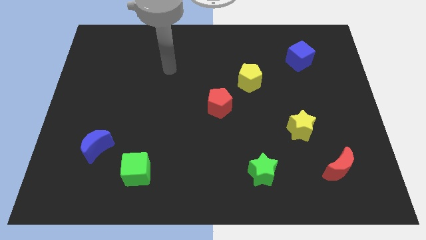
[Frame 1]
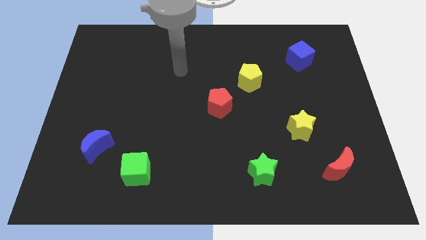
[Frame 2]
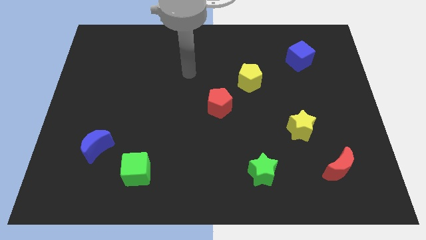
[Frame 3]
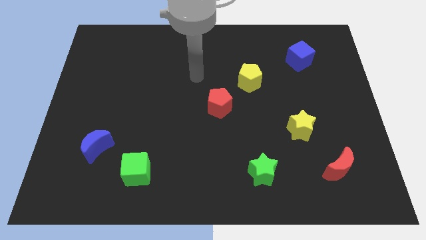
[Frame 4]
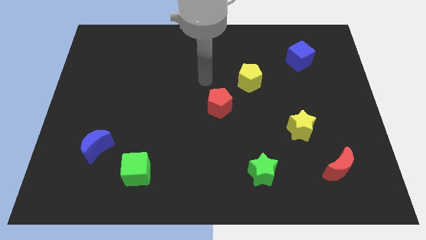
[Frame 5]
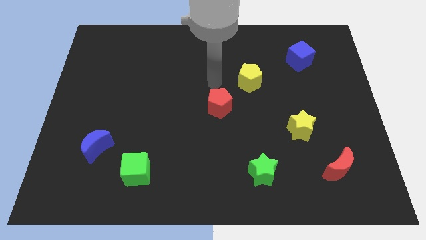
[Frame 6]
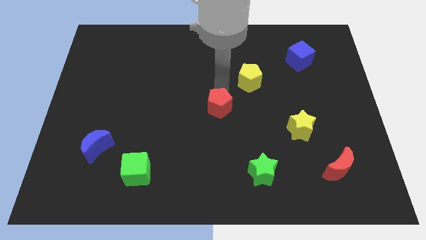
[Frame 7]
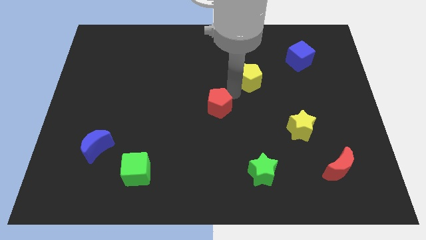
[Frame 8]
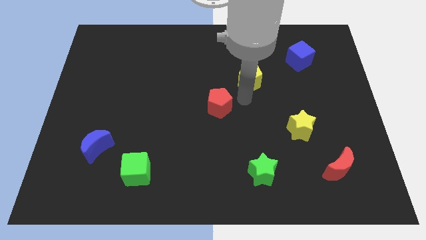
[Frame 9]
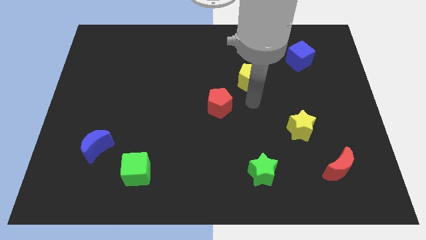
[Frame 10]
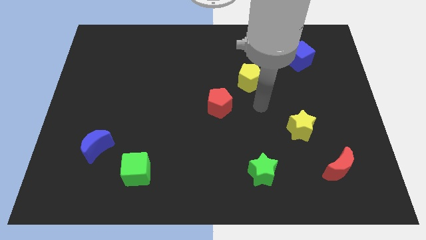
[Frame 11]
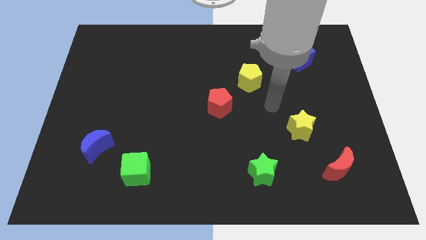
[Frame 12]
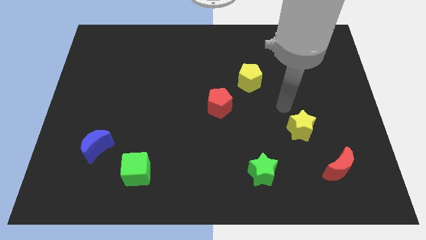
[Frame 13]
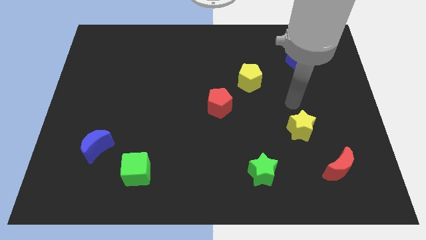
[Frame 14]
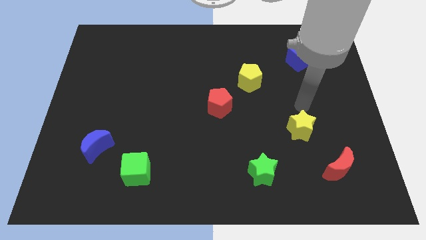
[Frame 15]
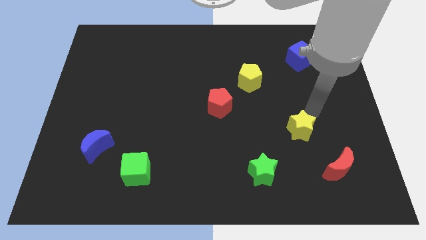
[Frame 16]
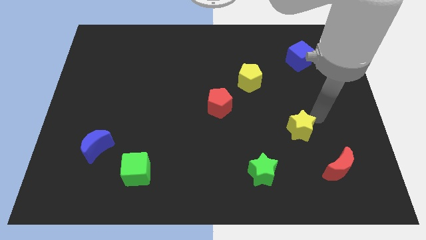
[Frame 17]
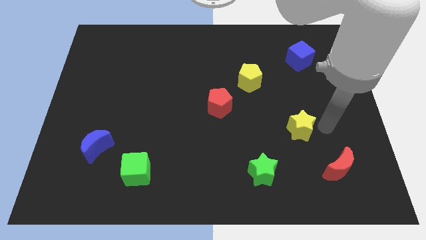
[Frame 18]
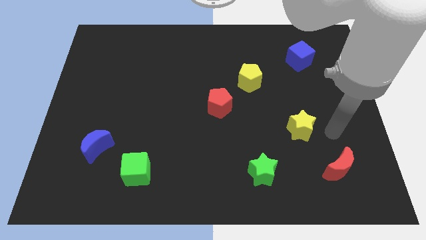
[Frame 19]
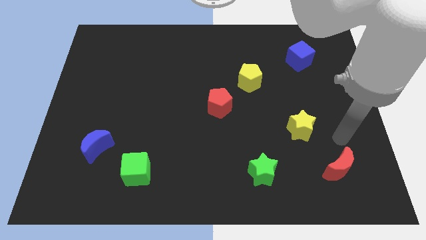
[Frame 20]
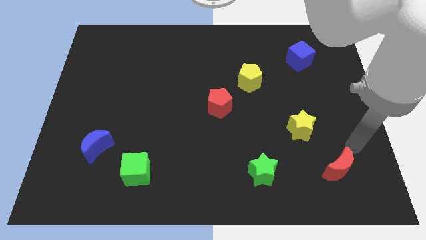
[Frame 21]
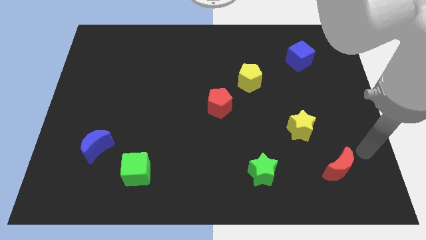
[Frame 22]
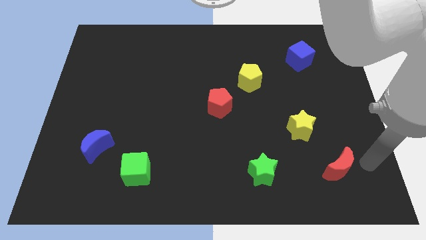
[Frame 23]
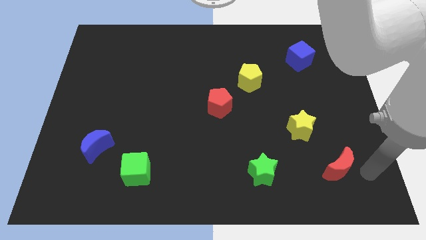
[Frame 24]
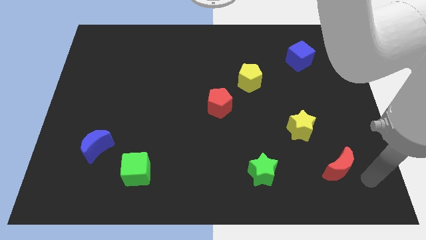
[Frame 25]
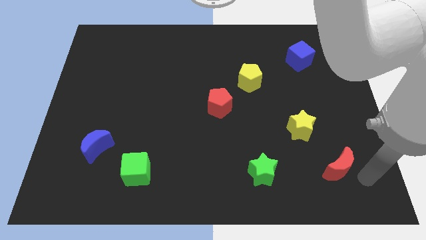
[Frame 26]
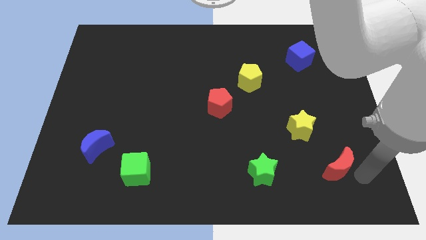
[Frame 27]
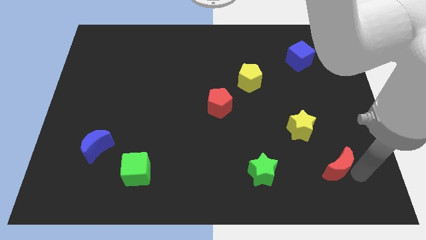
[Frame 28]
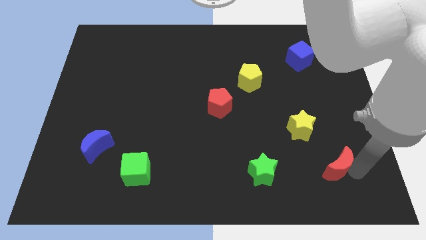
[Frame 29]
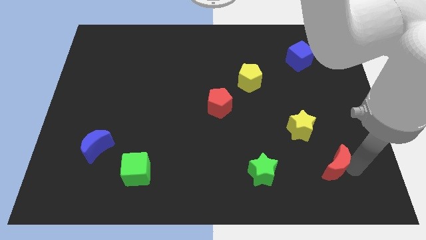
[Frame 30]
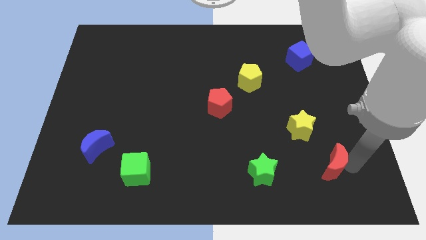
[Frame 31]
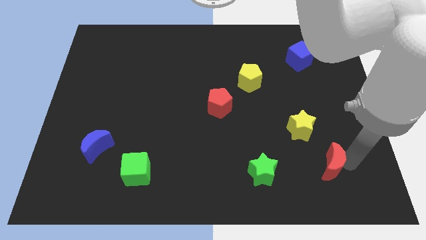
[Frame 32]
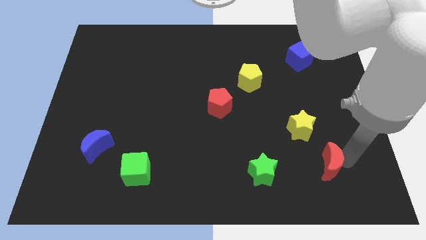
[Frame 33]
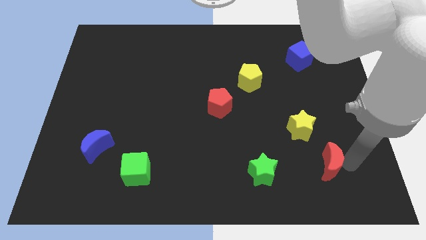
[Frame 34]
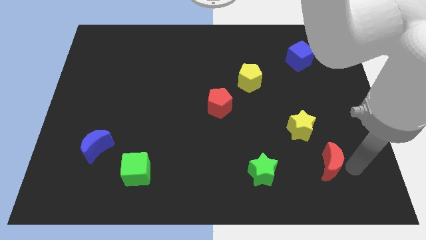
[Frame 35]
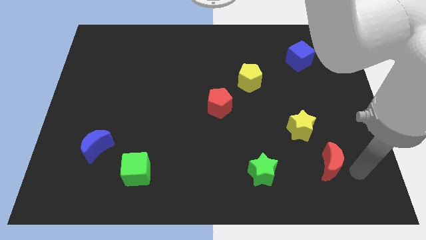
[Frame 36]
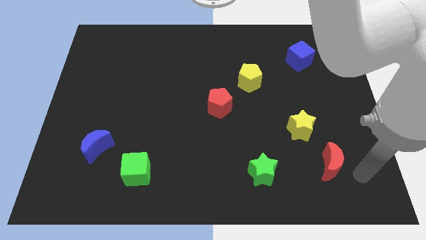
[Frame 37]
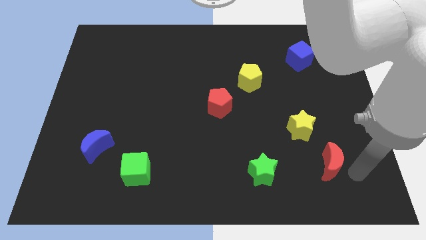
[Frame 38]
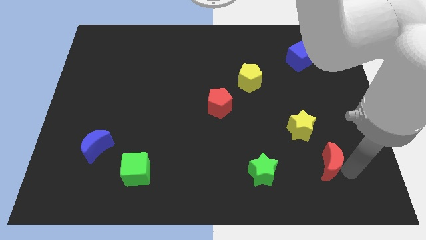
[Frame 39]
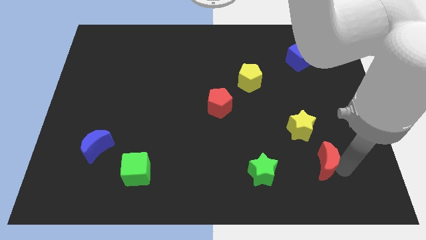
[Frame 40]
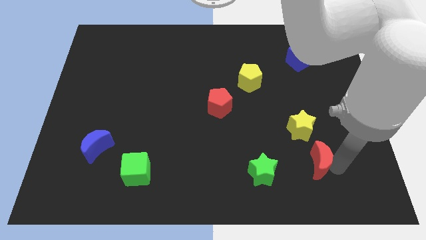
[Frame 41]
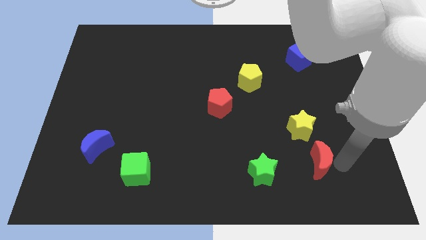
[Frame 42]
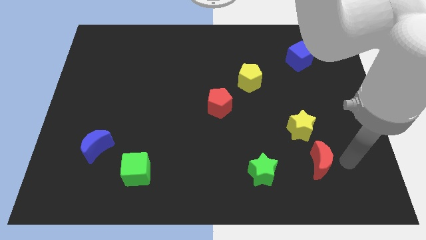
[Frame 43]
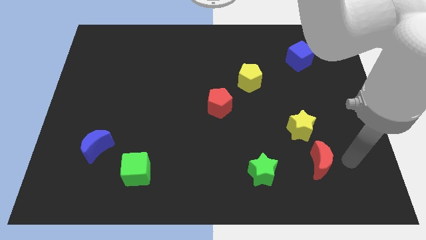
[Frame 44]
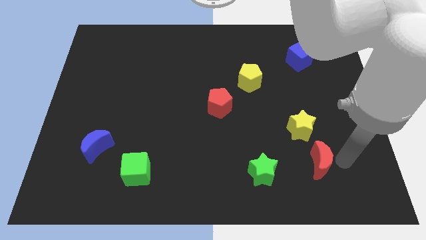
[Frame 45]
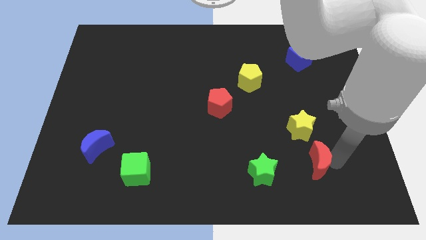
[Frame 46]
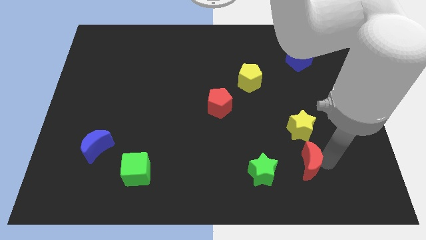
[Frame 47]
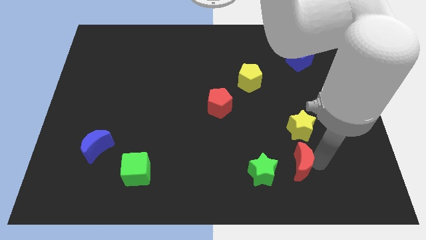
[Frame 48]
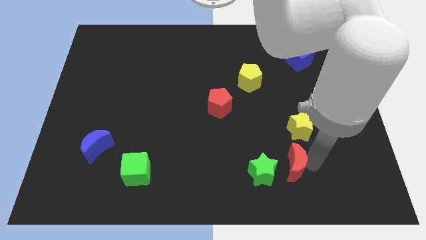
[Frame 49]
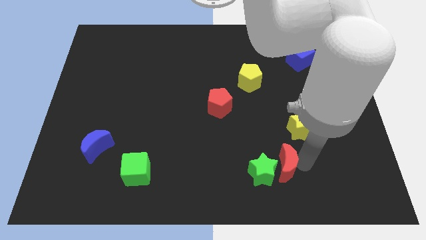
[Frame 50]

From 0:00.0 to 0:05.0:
push the red moon to the green star

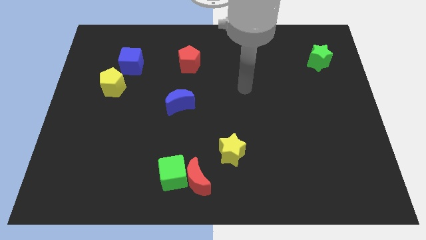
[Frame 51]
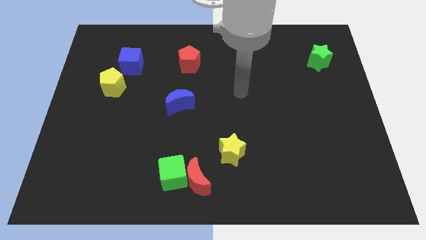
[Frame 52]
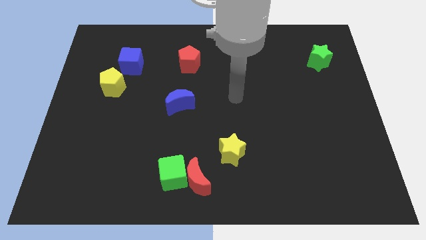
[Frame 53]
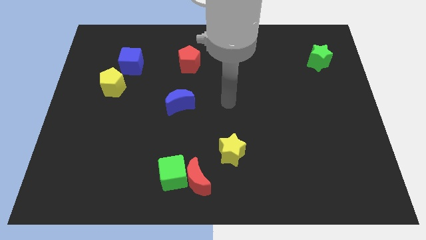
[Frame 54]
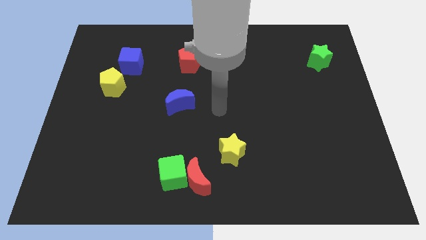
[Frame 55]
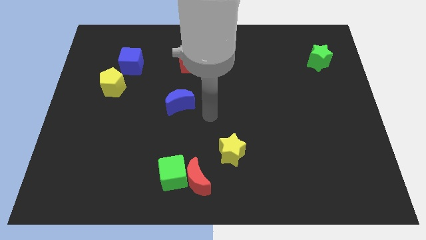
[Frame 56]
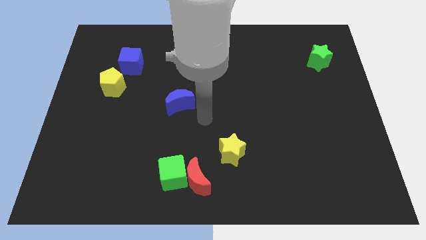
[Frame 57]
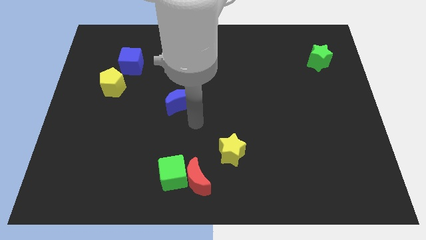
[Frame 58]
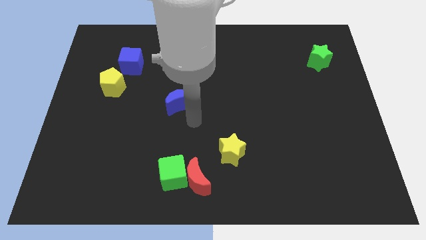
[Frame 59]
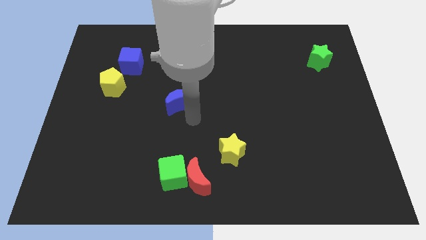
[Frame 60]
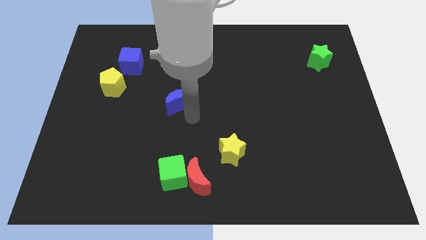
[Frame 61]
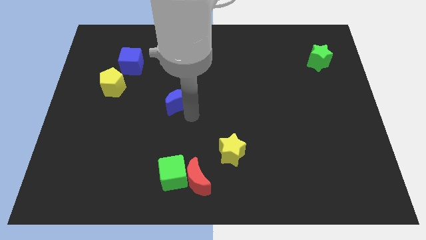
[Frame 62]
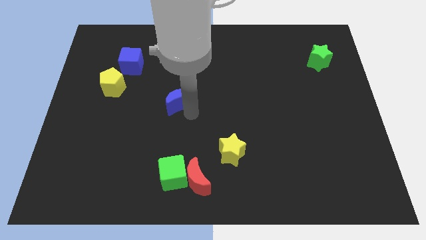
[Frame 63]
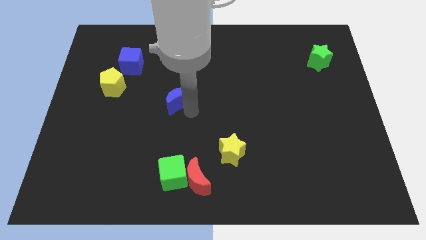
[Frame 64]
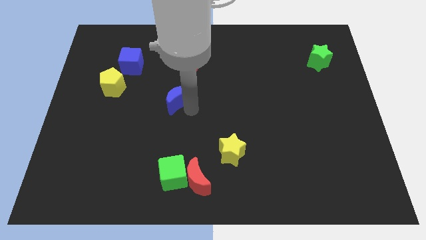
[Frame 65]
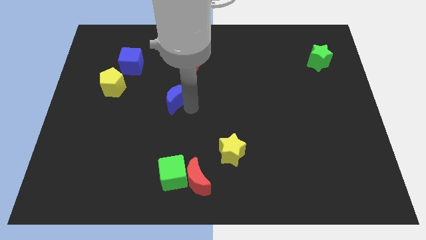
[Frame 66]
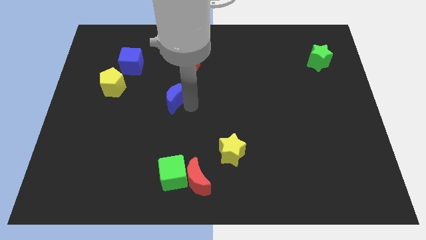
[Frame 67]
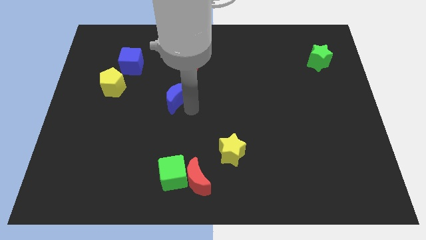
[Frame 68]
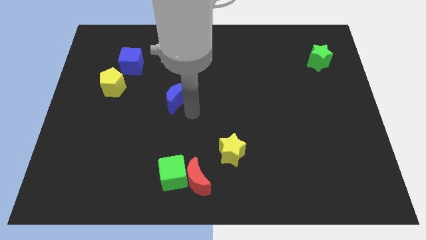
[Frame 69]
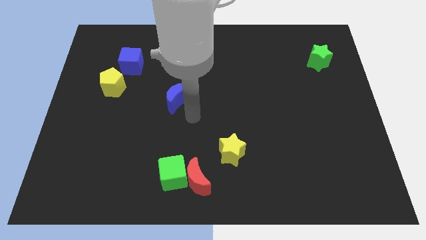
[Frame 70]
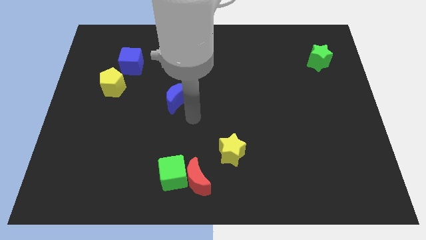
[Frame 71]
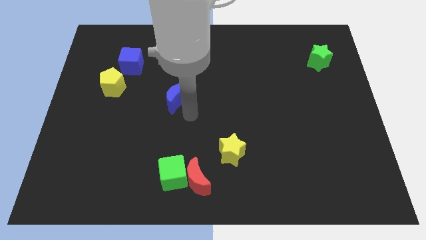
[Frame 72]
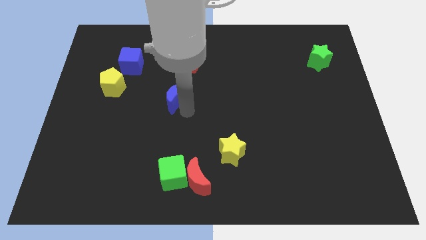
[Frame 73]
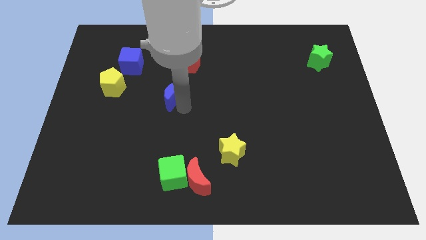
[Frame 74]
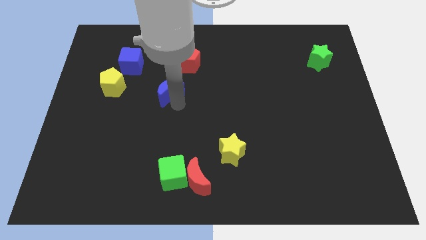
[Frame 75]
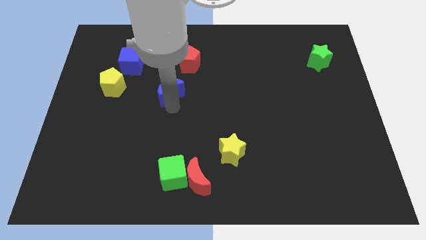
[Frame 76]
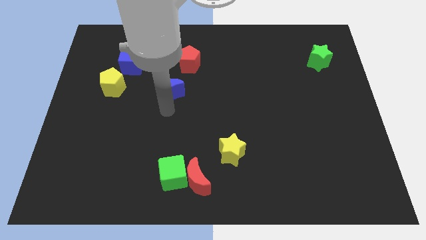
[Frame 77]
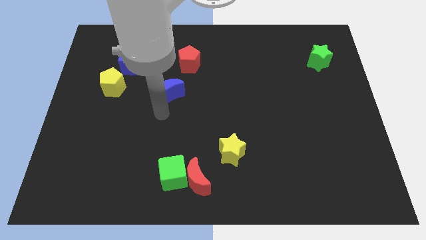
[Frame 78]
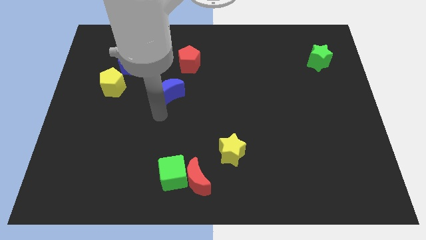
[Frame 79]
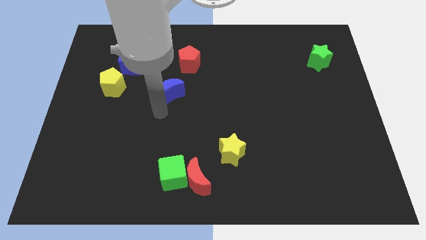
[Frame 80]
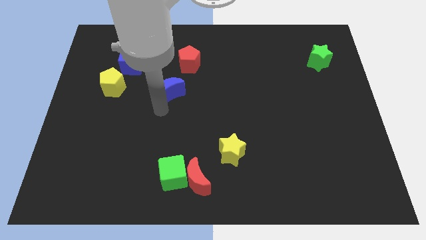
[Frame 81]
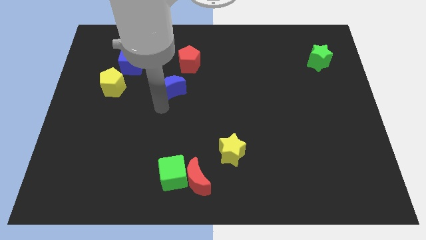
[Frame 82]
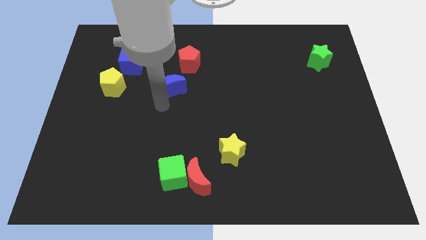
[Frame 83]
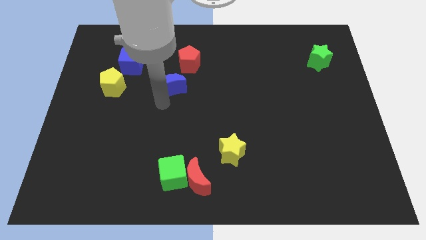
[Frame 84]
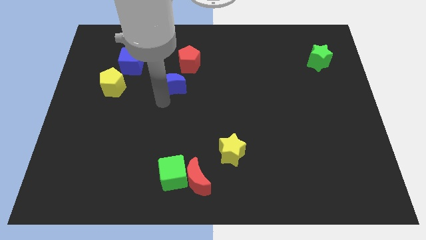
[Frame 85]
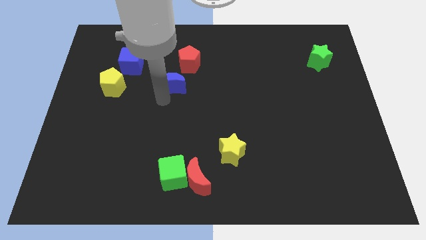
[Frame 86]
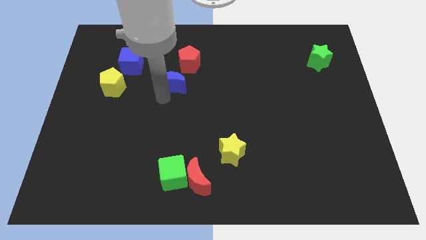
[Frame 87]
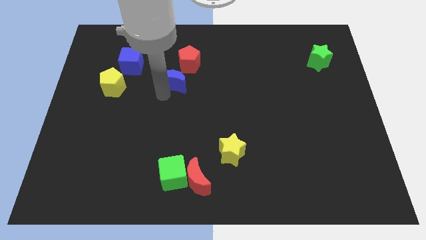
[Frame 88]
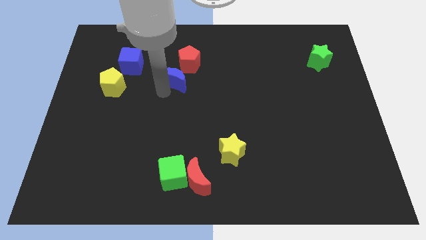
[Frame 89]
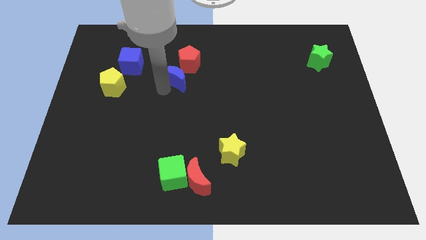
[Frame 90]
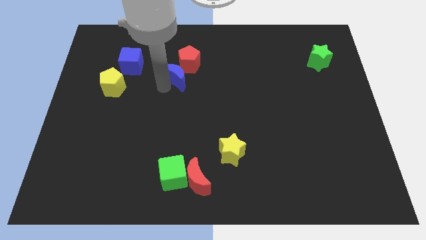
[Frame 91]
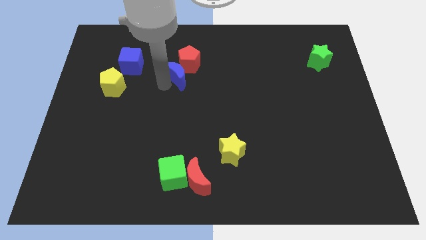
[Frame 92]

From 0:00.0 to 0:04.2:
move the blue moon next to the red pentagon
